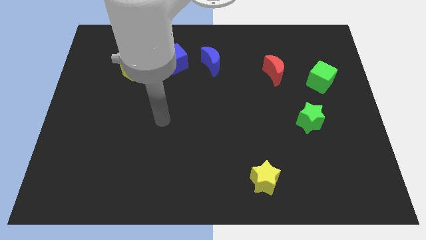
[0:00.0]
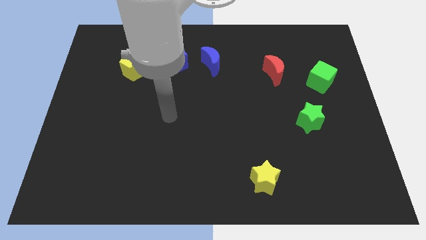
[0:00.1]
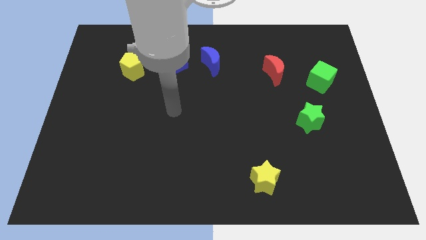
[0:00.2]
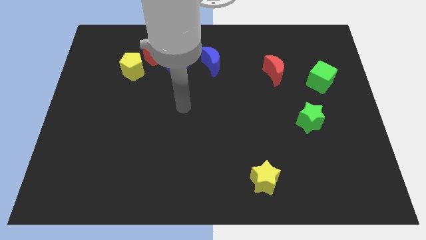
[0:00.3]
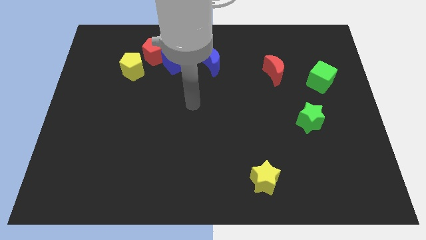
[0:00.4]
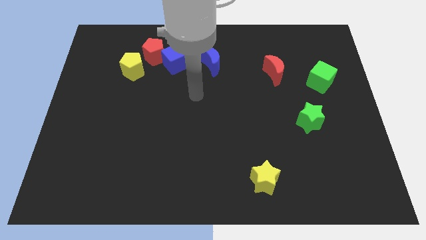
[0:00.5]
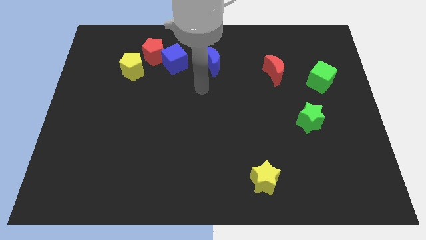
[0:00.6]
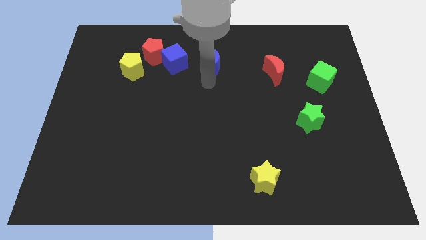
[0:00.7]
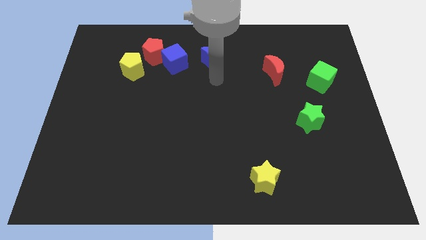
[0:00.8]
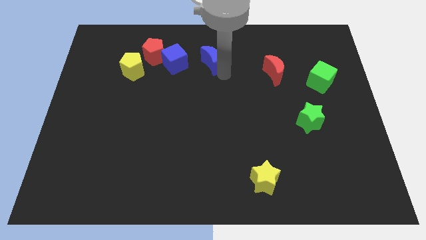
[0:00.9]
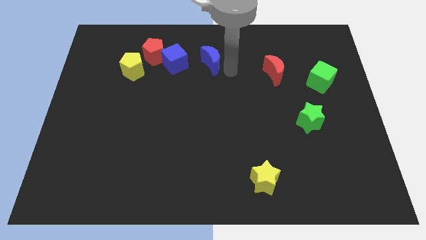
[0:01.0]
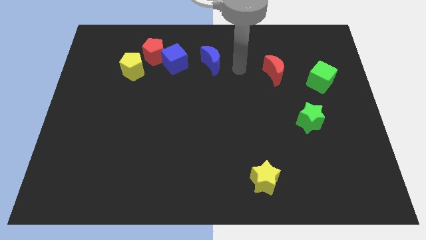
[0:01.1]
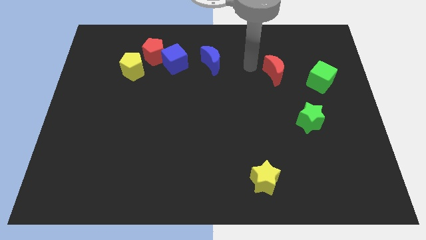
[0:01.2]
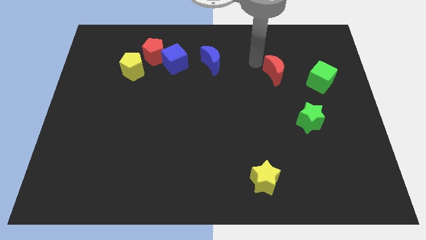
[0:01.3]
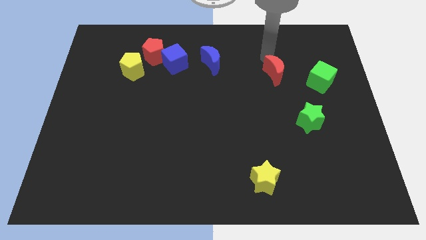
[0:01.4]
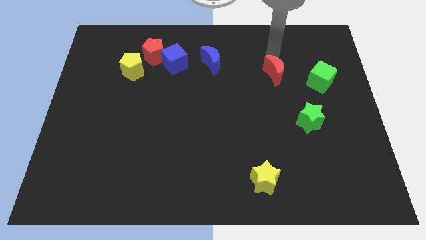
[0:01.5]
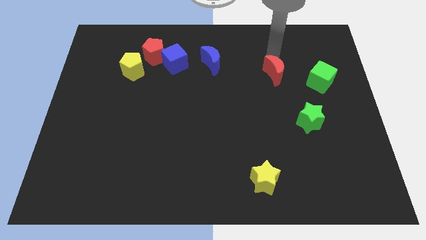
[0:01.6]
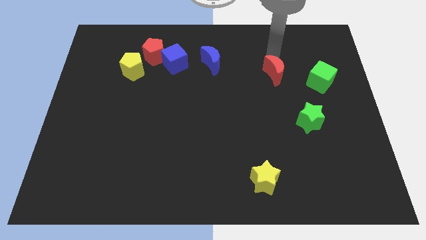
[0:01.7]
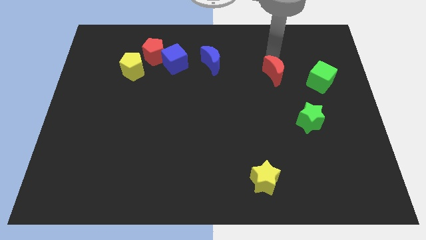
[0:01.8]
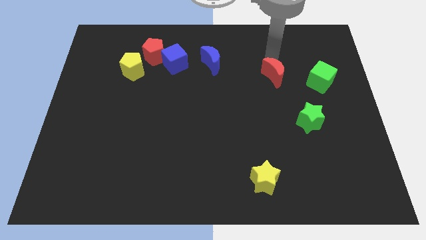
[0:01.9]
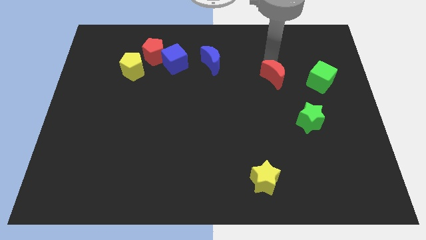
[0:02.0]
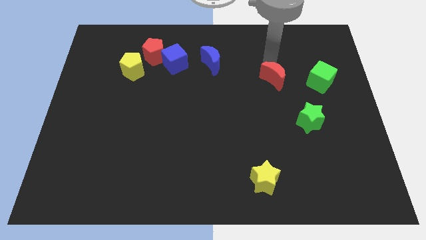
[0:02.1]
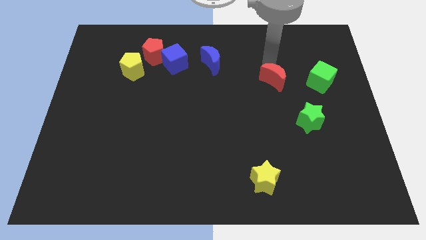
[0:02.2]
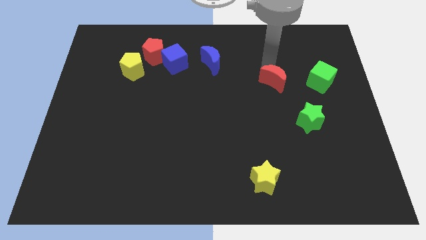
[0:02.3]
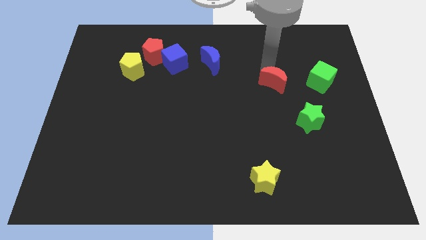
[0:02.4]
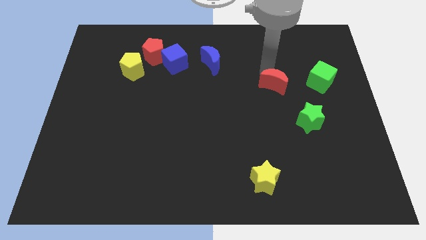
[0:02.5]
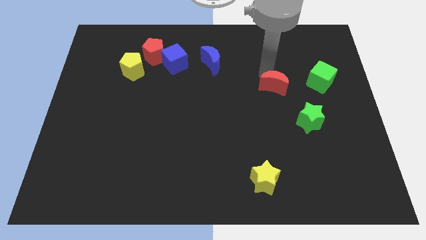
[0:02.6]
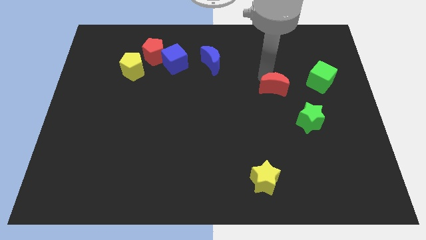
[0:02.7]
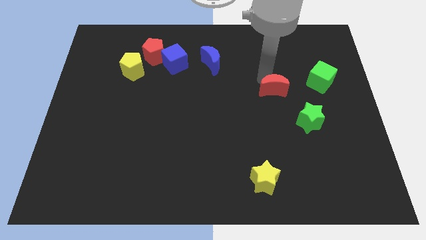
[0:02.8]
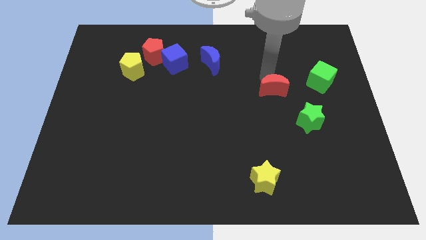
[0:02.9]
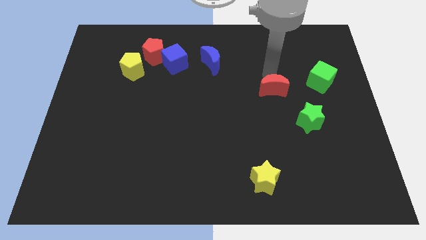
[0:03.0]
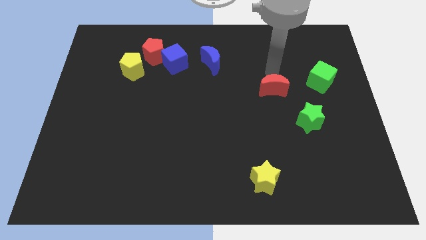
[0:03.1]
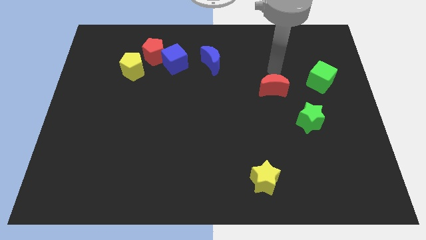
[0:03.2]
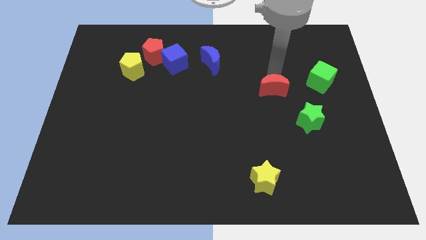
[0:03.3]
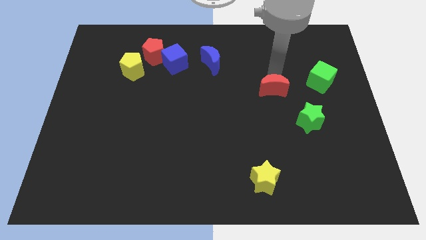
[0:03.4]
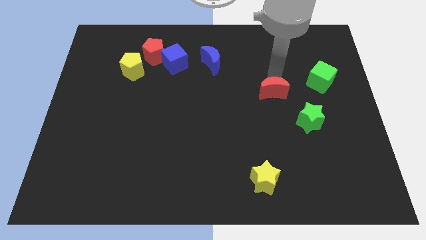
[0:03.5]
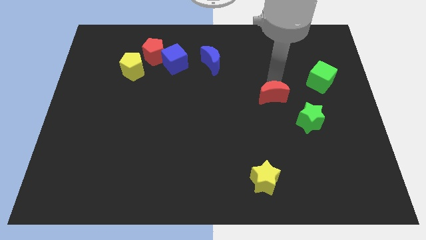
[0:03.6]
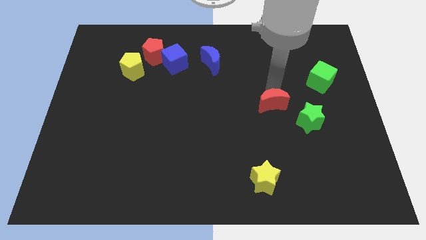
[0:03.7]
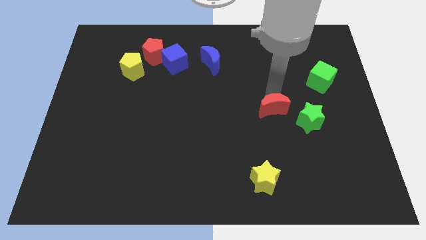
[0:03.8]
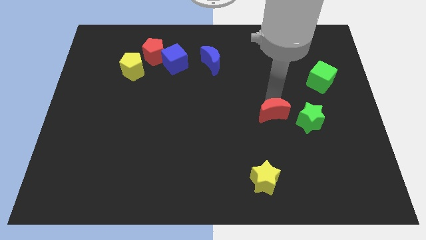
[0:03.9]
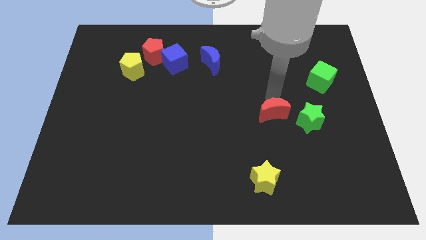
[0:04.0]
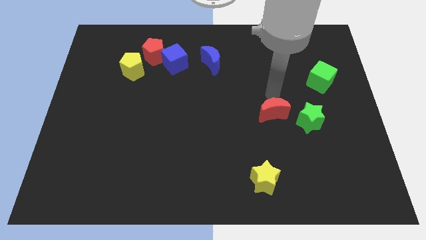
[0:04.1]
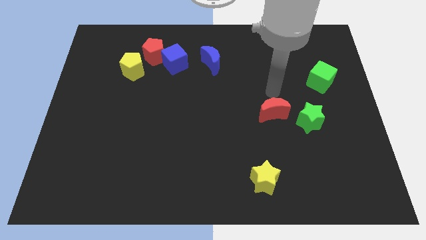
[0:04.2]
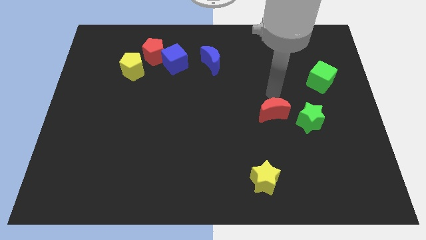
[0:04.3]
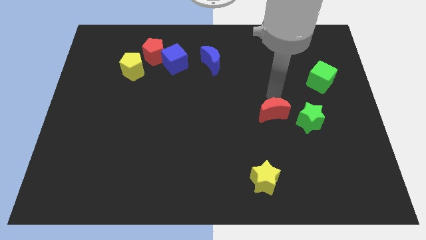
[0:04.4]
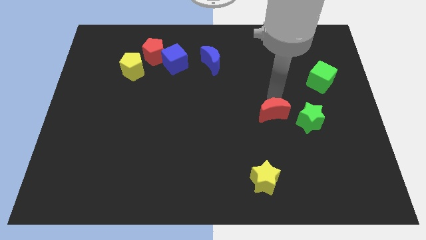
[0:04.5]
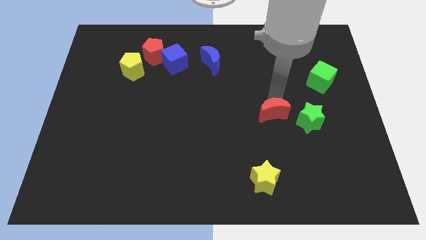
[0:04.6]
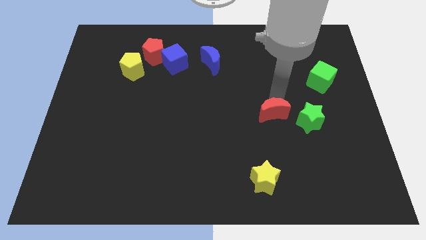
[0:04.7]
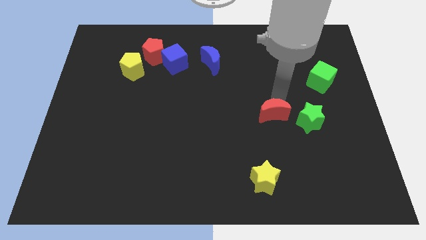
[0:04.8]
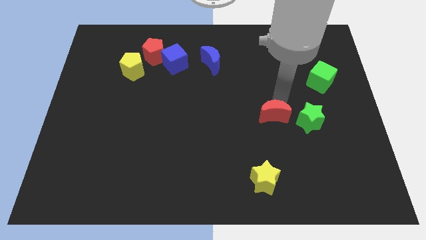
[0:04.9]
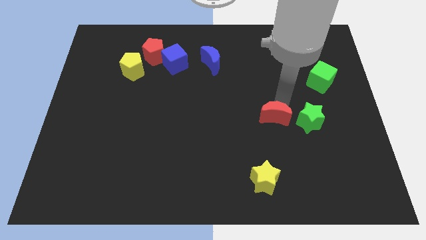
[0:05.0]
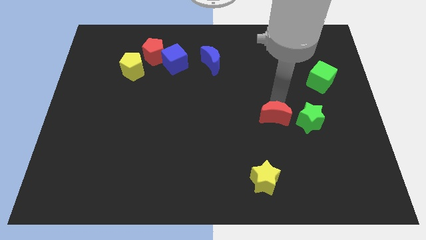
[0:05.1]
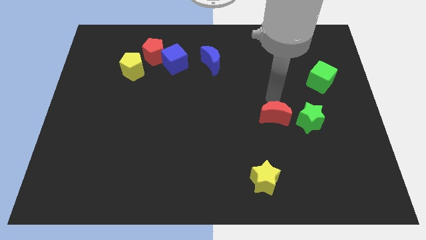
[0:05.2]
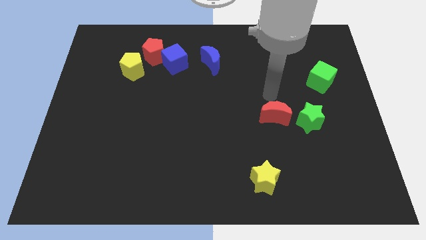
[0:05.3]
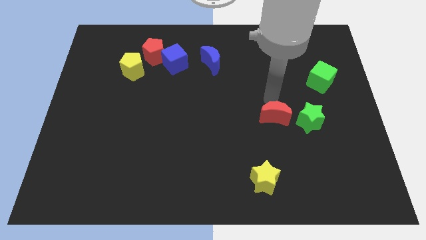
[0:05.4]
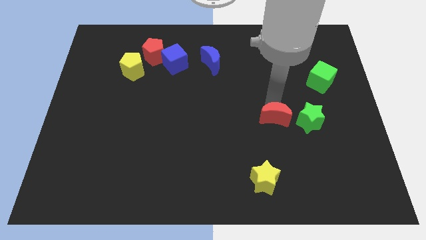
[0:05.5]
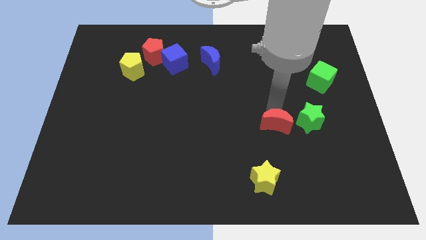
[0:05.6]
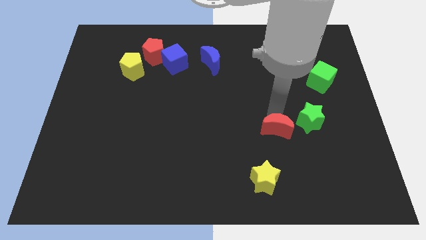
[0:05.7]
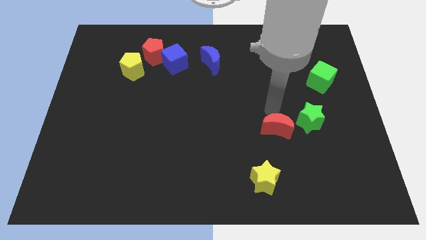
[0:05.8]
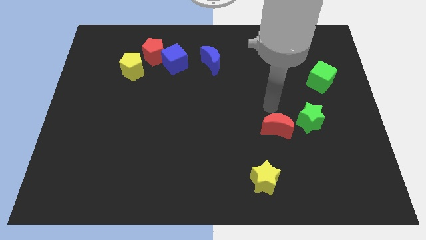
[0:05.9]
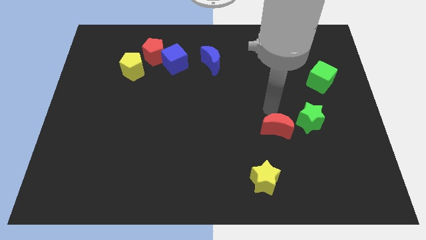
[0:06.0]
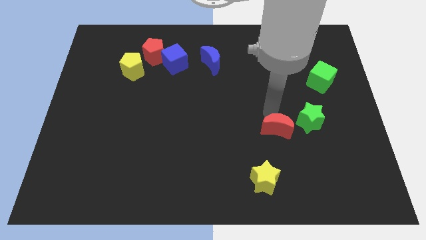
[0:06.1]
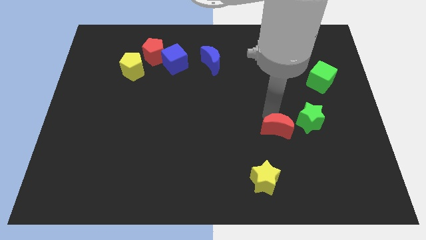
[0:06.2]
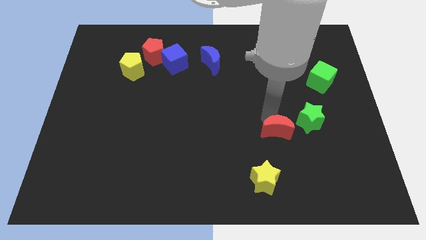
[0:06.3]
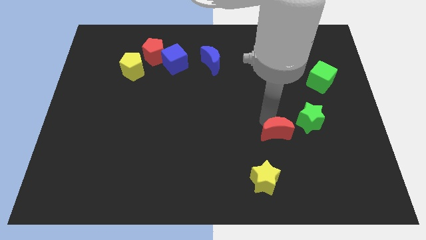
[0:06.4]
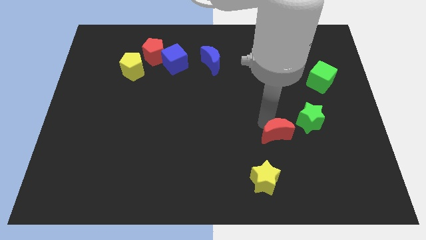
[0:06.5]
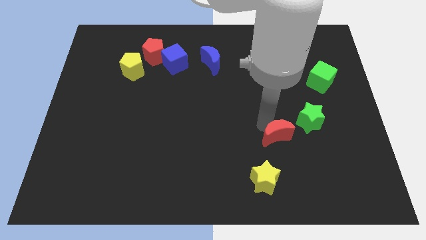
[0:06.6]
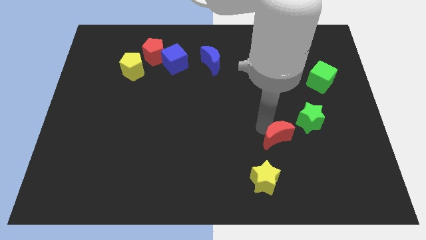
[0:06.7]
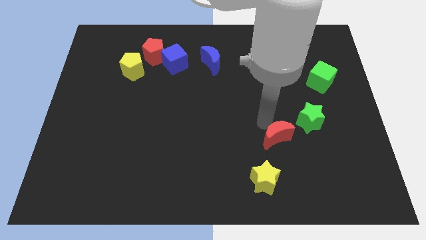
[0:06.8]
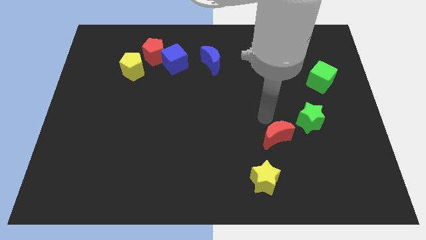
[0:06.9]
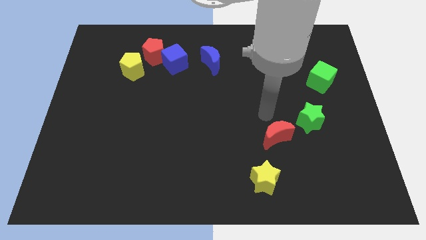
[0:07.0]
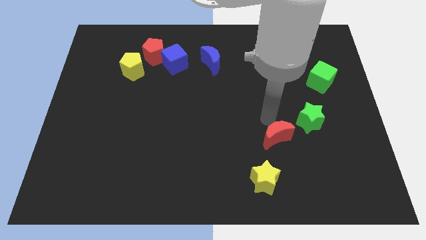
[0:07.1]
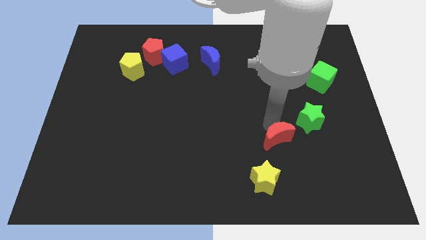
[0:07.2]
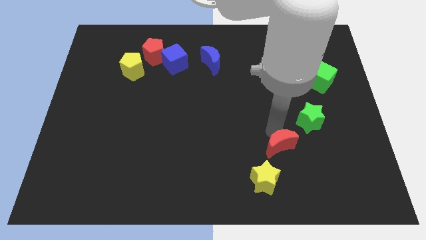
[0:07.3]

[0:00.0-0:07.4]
move the red moon to the top right side of the yellow star
